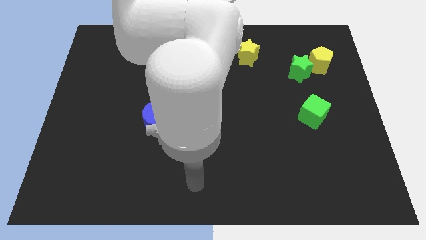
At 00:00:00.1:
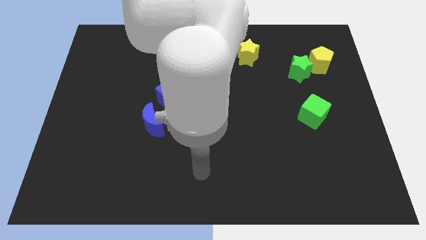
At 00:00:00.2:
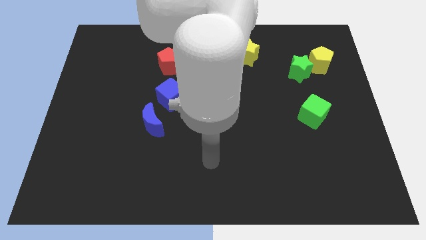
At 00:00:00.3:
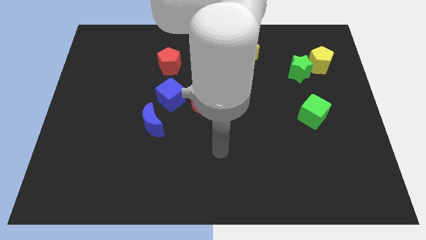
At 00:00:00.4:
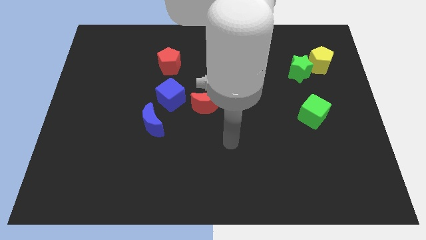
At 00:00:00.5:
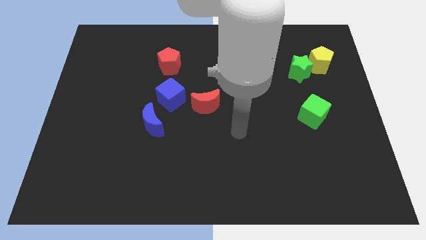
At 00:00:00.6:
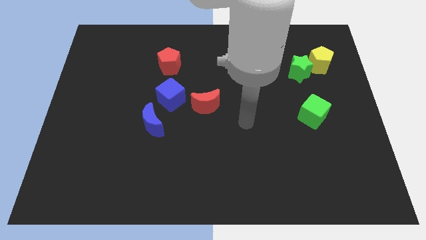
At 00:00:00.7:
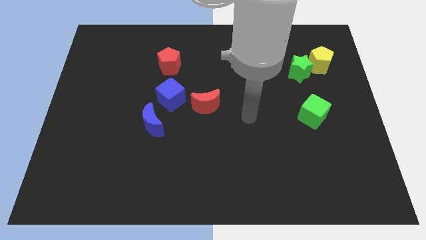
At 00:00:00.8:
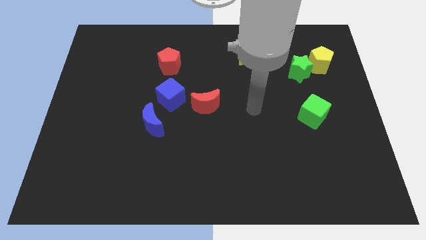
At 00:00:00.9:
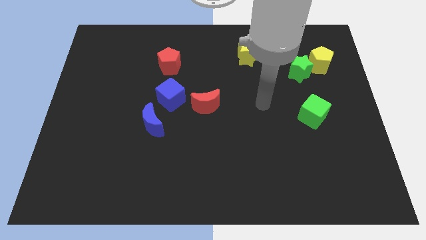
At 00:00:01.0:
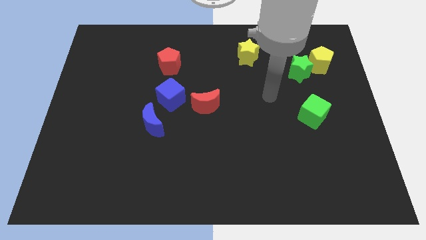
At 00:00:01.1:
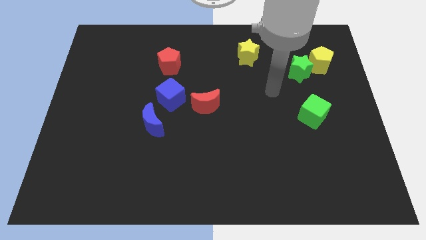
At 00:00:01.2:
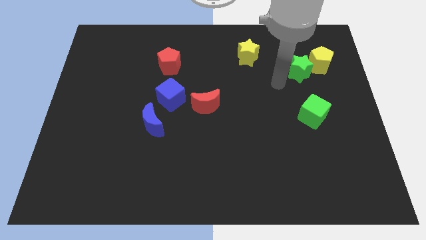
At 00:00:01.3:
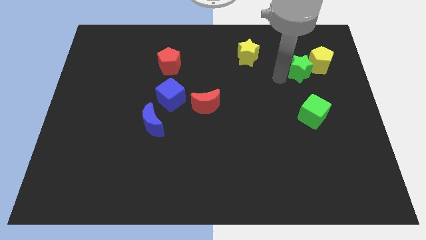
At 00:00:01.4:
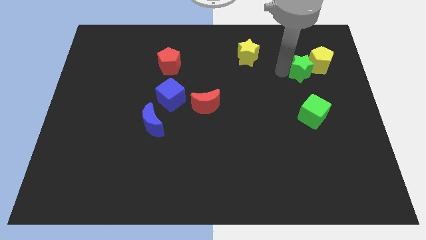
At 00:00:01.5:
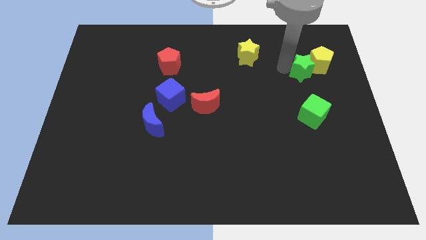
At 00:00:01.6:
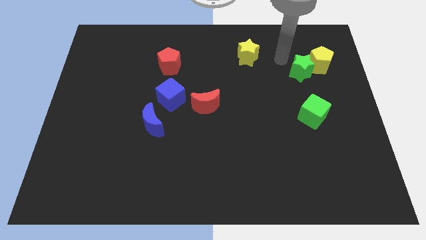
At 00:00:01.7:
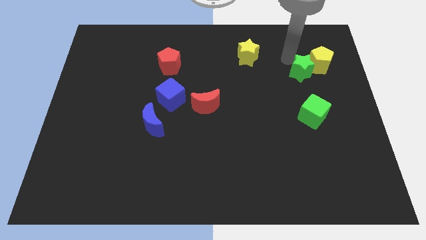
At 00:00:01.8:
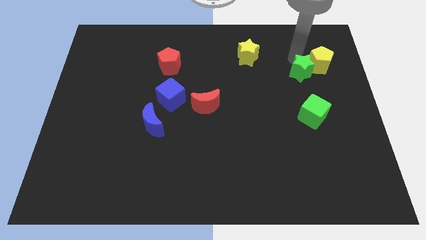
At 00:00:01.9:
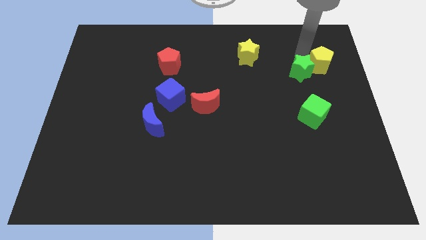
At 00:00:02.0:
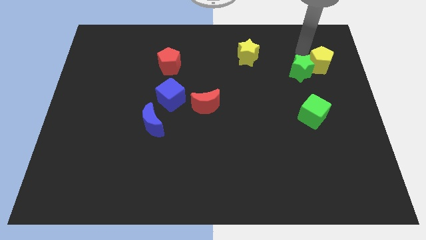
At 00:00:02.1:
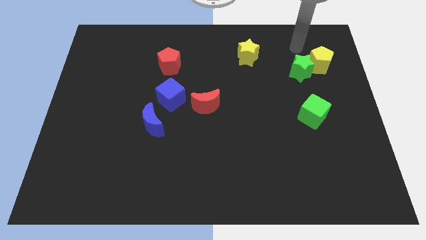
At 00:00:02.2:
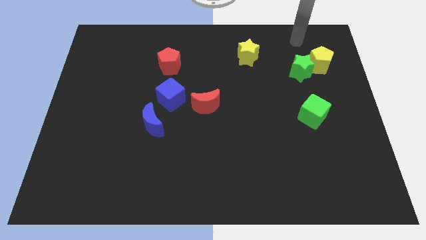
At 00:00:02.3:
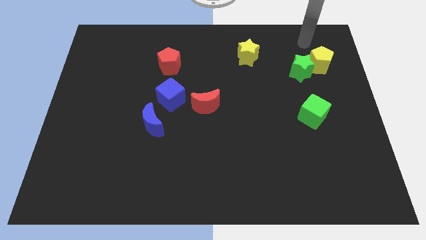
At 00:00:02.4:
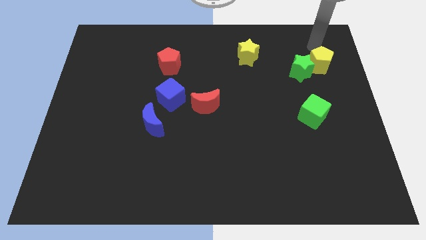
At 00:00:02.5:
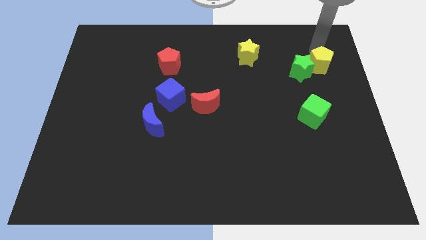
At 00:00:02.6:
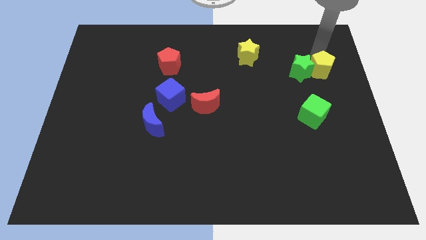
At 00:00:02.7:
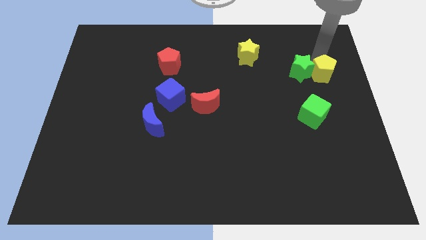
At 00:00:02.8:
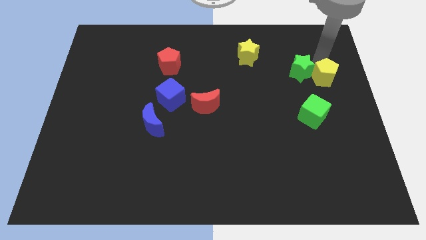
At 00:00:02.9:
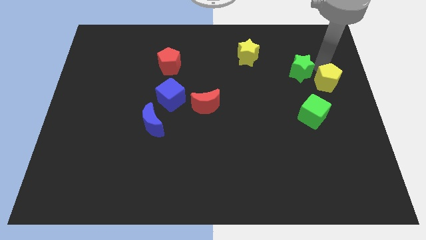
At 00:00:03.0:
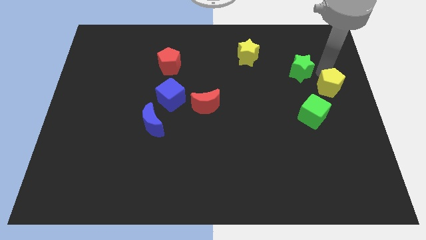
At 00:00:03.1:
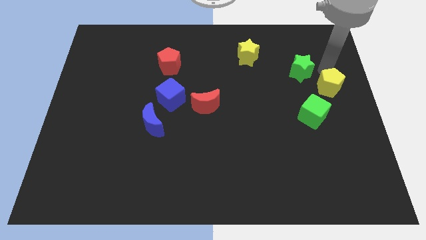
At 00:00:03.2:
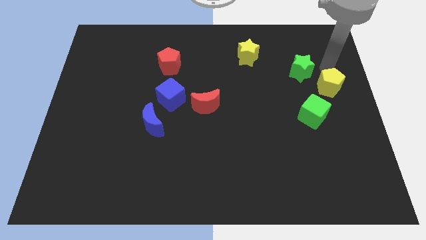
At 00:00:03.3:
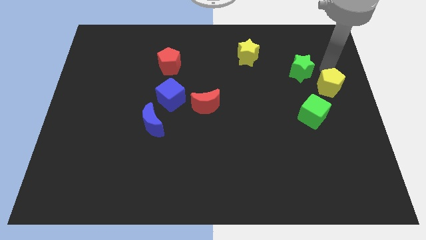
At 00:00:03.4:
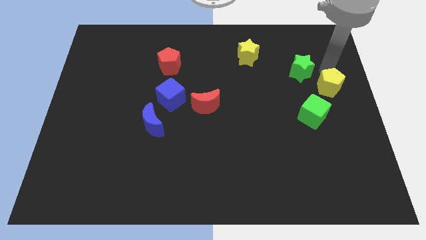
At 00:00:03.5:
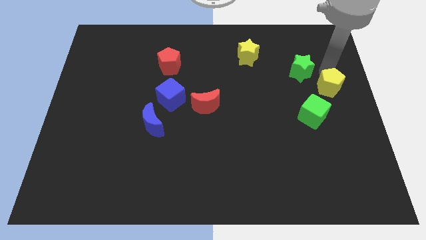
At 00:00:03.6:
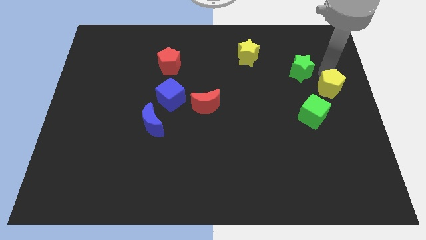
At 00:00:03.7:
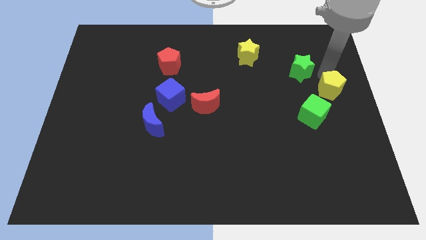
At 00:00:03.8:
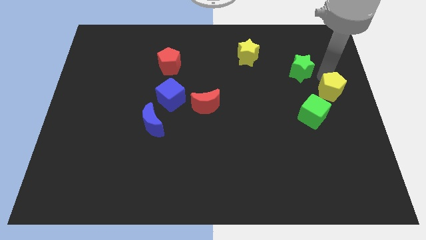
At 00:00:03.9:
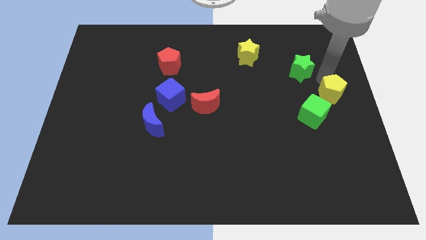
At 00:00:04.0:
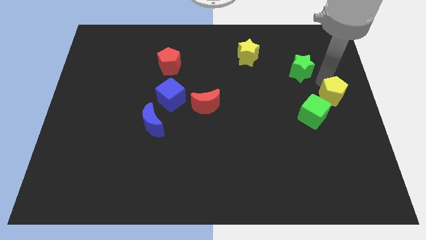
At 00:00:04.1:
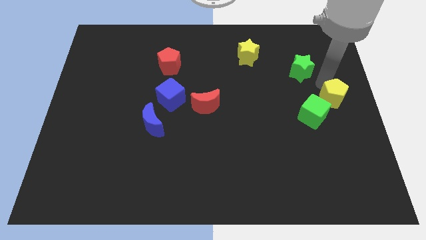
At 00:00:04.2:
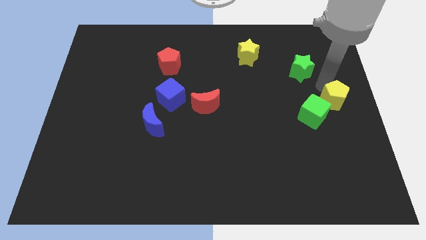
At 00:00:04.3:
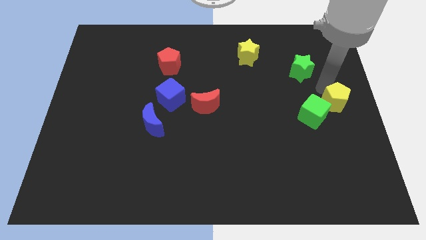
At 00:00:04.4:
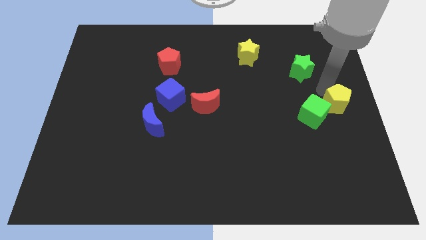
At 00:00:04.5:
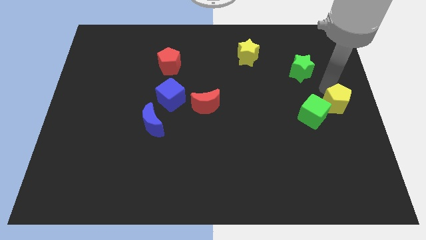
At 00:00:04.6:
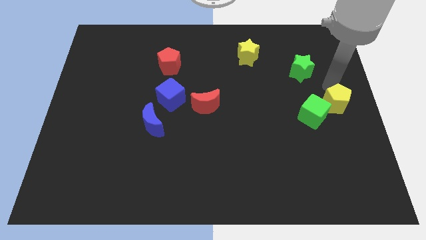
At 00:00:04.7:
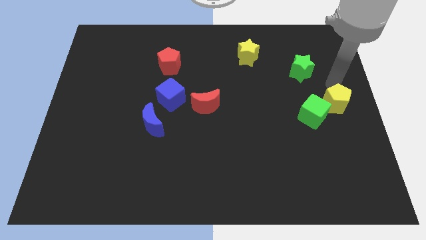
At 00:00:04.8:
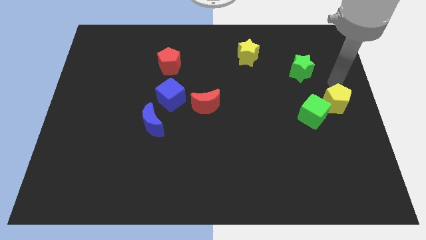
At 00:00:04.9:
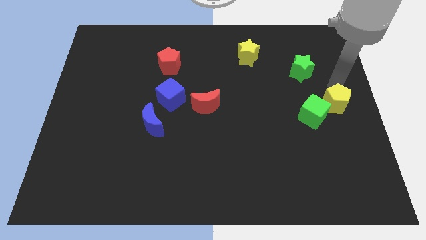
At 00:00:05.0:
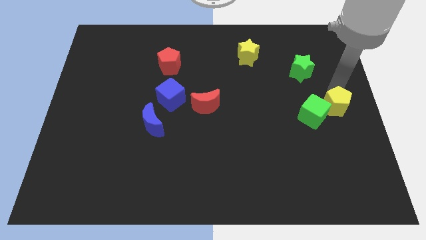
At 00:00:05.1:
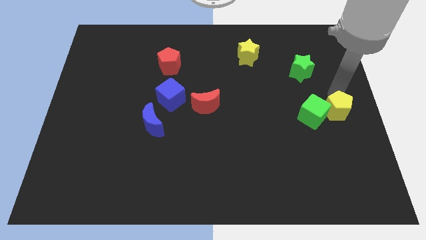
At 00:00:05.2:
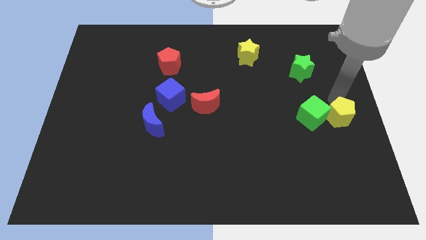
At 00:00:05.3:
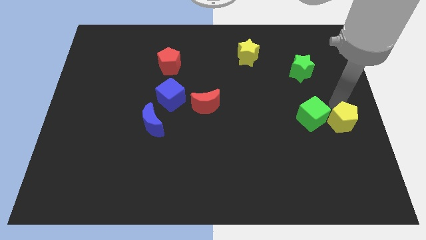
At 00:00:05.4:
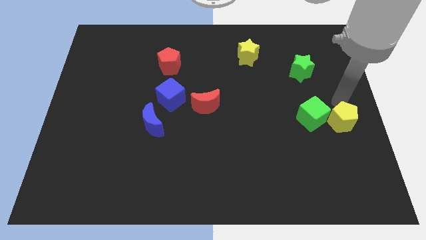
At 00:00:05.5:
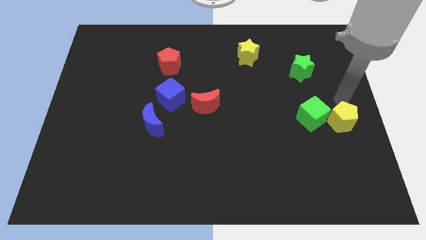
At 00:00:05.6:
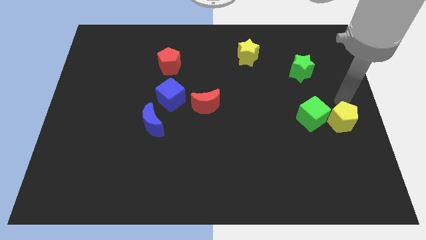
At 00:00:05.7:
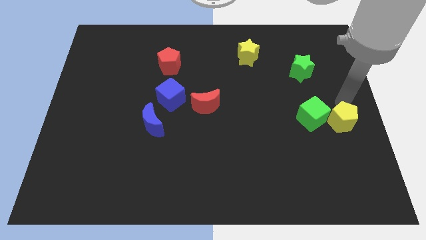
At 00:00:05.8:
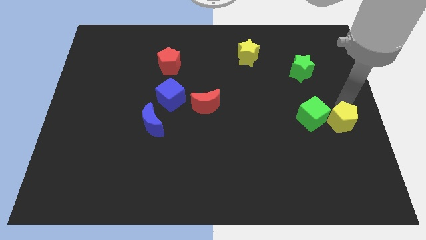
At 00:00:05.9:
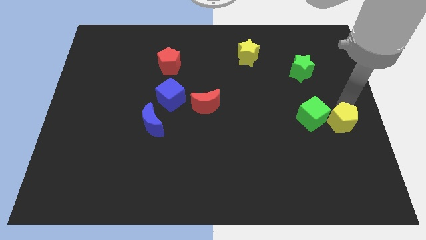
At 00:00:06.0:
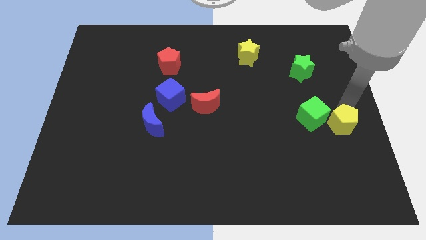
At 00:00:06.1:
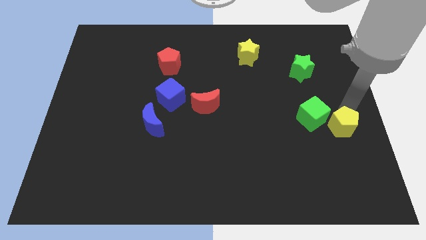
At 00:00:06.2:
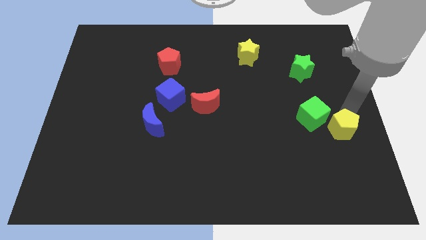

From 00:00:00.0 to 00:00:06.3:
move the yellow pentagon down

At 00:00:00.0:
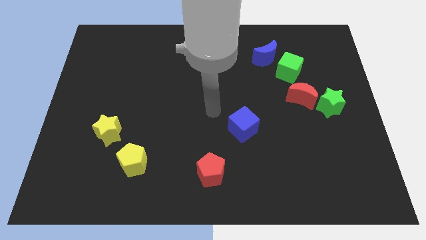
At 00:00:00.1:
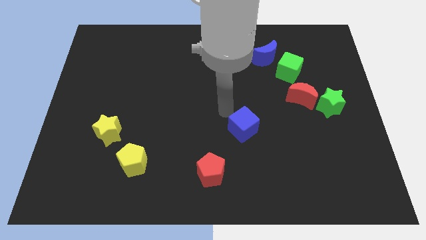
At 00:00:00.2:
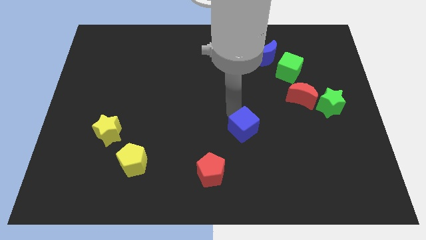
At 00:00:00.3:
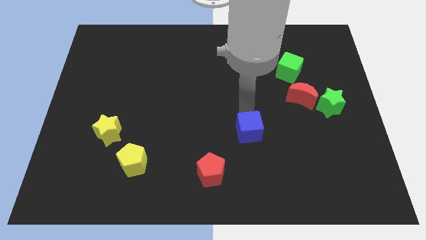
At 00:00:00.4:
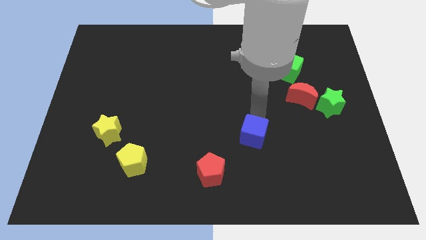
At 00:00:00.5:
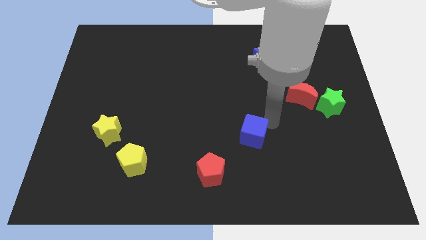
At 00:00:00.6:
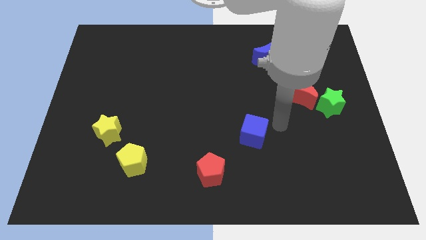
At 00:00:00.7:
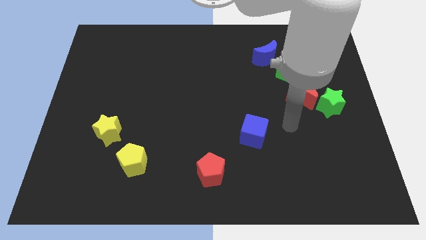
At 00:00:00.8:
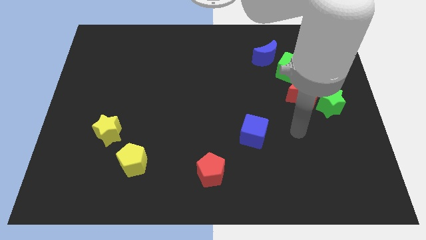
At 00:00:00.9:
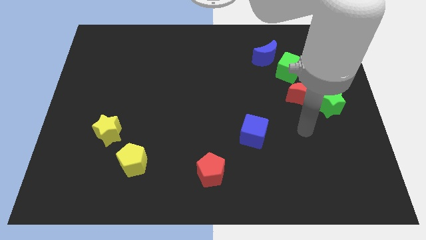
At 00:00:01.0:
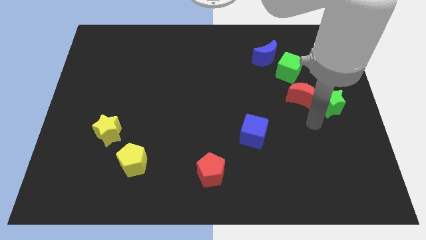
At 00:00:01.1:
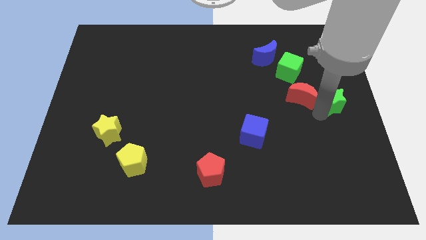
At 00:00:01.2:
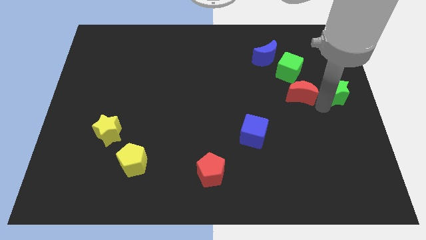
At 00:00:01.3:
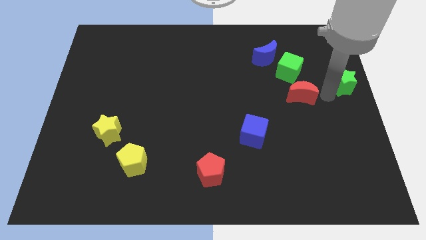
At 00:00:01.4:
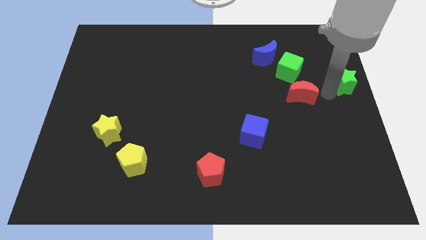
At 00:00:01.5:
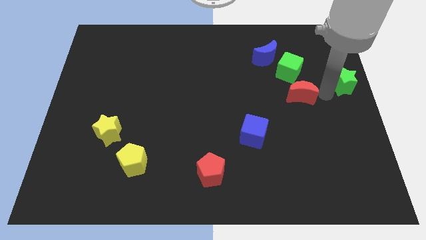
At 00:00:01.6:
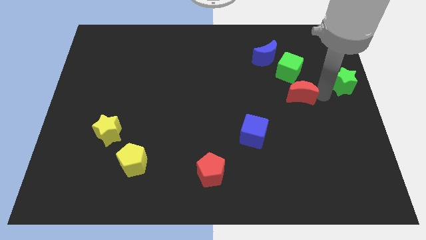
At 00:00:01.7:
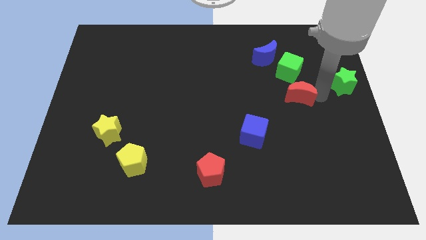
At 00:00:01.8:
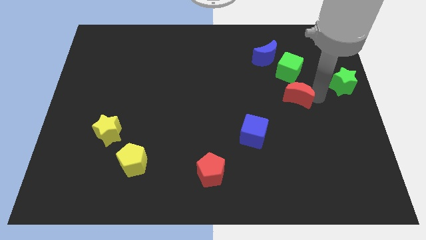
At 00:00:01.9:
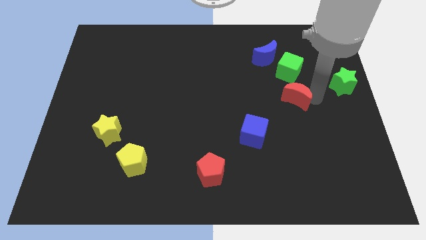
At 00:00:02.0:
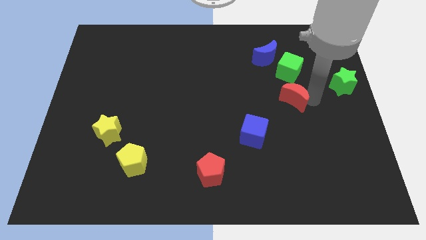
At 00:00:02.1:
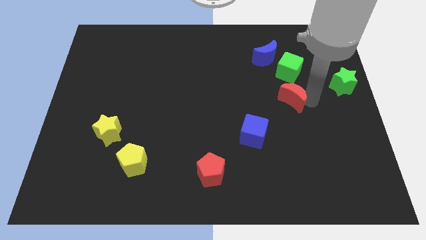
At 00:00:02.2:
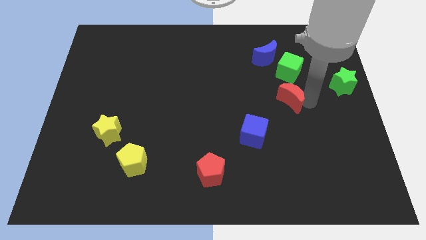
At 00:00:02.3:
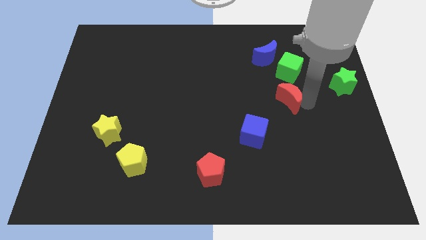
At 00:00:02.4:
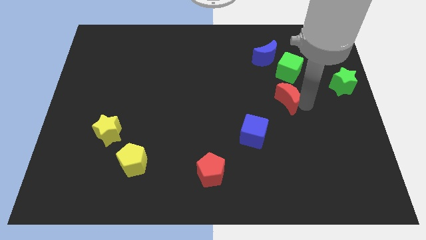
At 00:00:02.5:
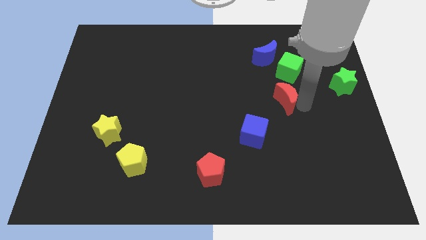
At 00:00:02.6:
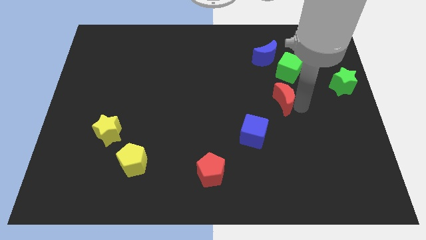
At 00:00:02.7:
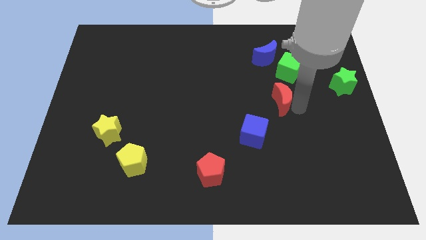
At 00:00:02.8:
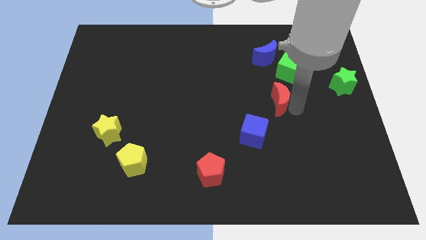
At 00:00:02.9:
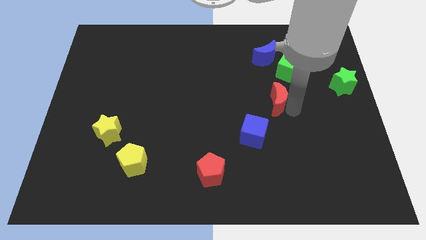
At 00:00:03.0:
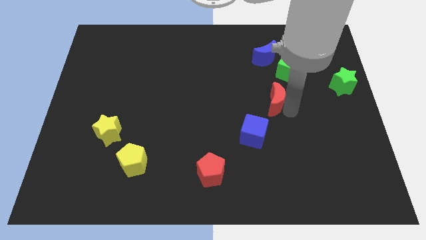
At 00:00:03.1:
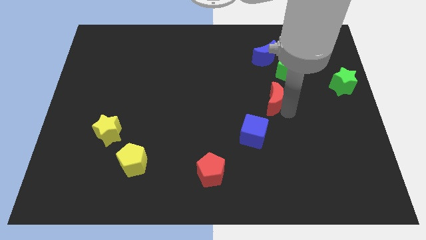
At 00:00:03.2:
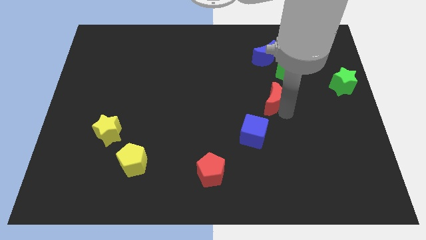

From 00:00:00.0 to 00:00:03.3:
slightly push the red moon left
